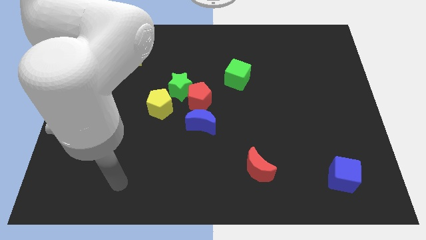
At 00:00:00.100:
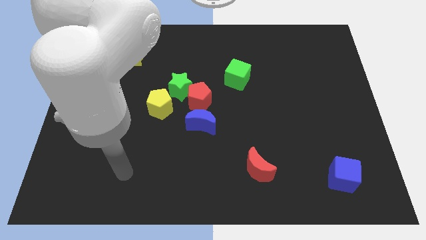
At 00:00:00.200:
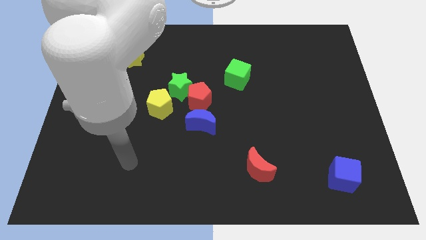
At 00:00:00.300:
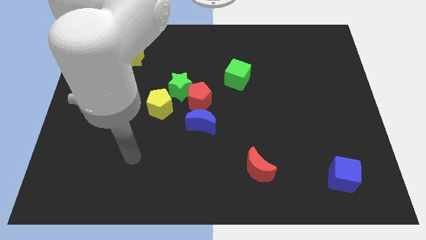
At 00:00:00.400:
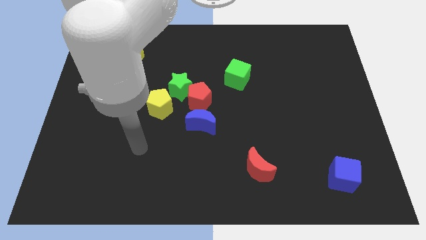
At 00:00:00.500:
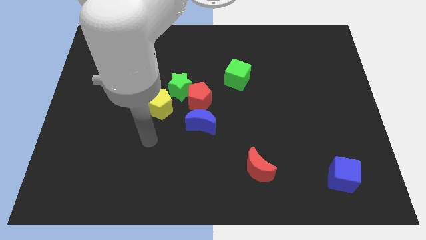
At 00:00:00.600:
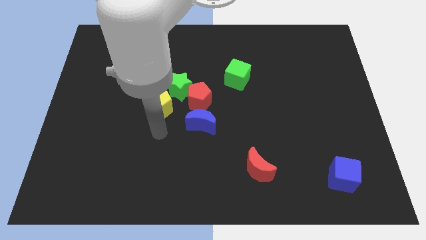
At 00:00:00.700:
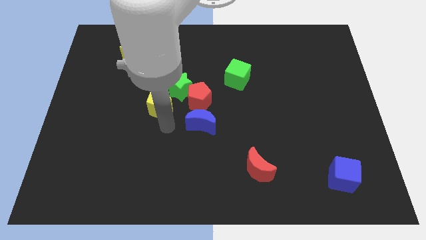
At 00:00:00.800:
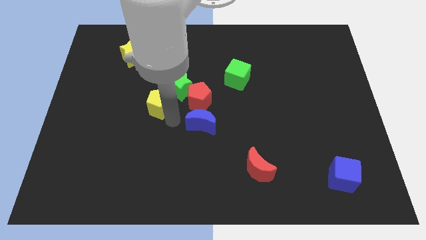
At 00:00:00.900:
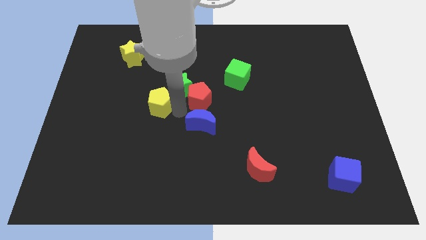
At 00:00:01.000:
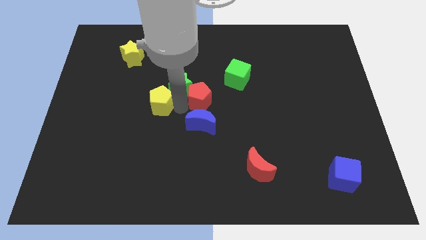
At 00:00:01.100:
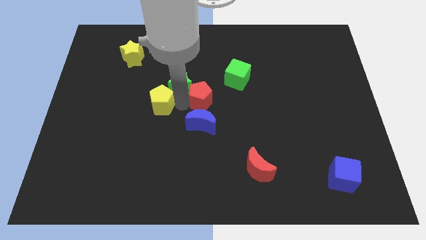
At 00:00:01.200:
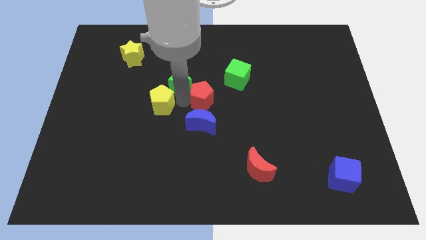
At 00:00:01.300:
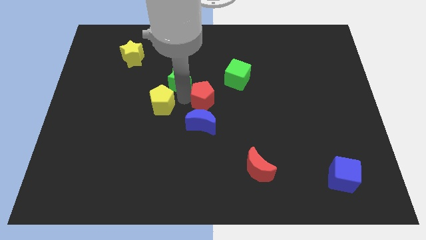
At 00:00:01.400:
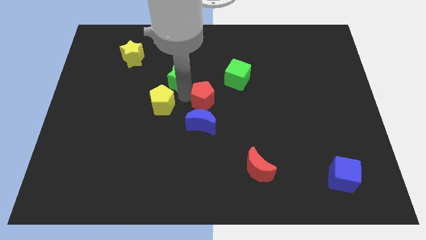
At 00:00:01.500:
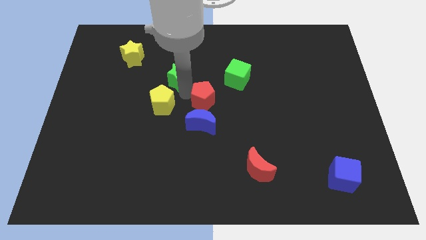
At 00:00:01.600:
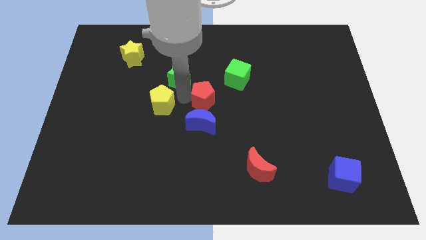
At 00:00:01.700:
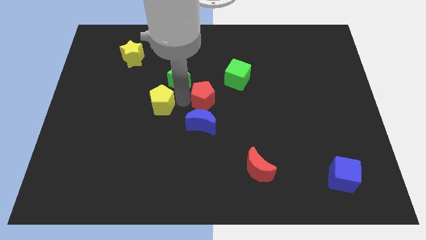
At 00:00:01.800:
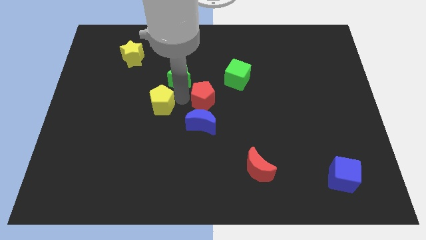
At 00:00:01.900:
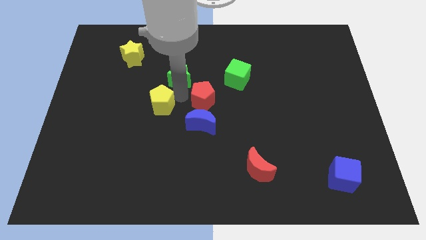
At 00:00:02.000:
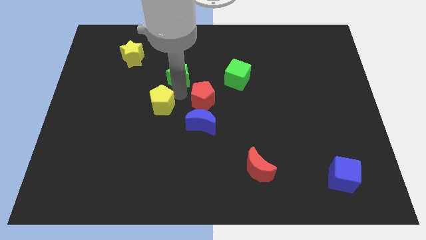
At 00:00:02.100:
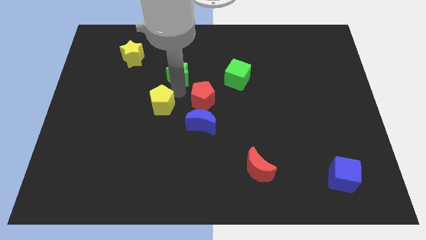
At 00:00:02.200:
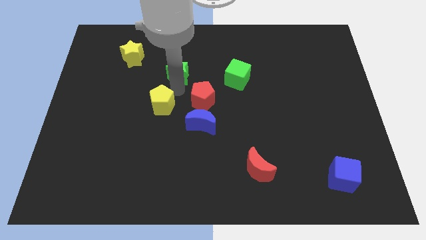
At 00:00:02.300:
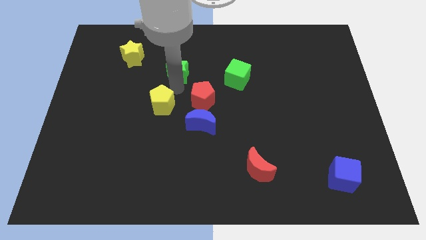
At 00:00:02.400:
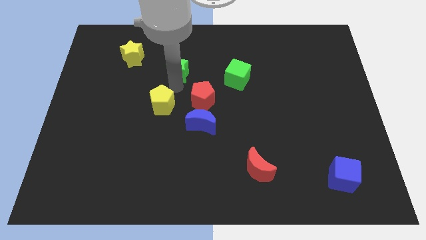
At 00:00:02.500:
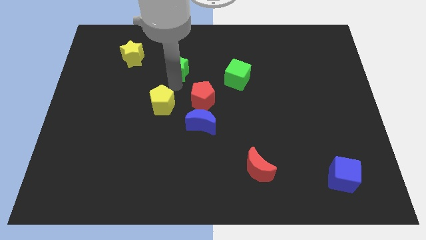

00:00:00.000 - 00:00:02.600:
move the green star away from the red pentagon and yellow pentagon

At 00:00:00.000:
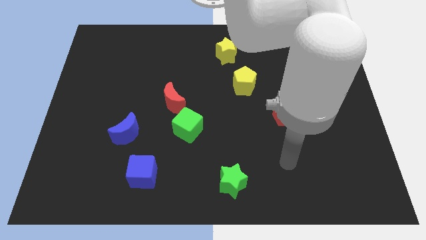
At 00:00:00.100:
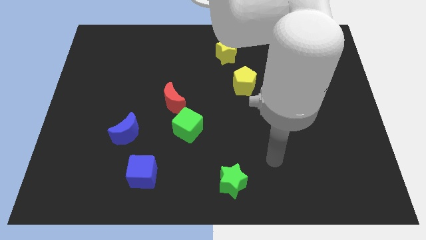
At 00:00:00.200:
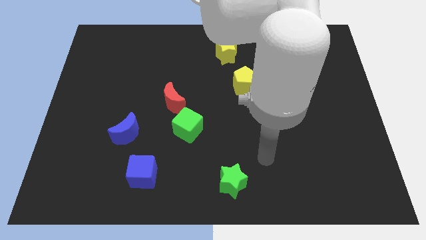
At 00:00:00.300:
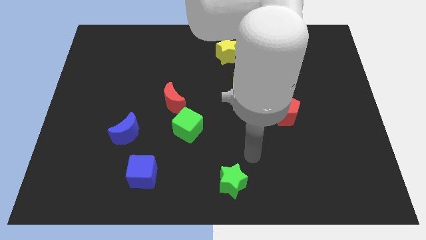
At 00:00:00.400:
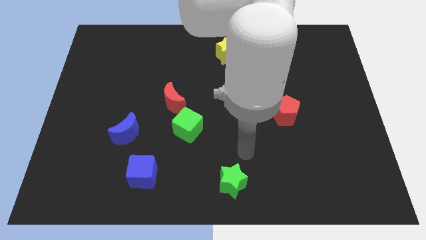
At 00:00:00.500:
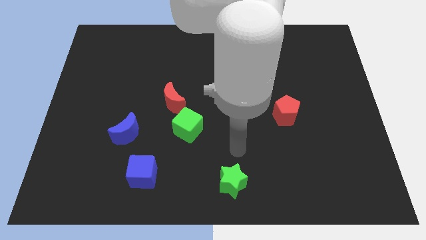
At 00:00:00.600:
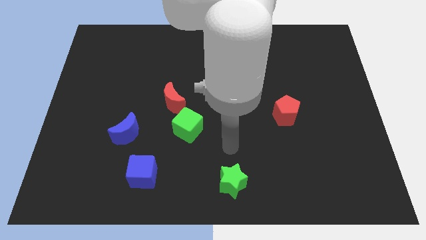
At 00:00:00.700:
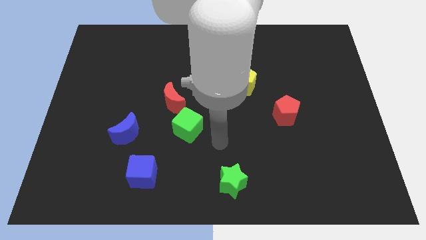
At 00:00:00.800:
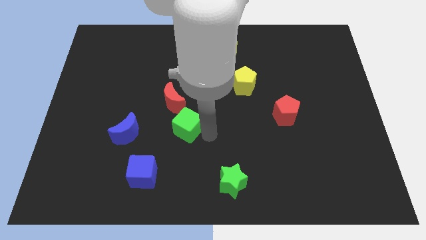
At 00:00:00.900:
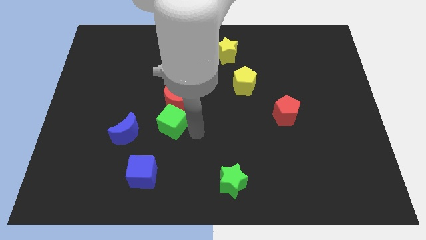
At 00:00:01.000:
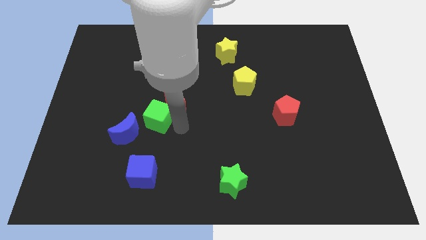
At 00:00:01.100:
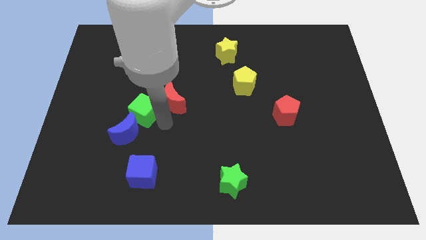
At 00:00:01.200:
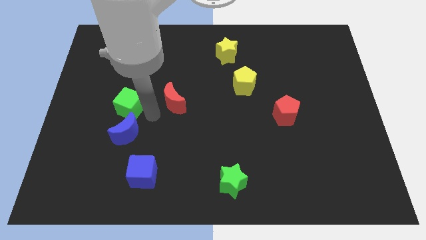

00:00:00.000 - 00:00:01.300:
pull the red moon apart from the green cube

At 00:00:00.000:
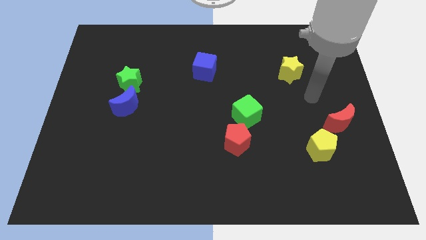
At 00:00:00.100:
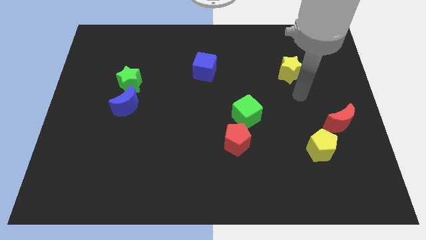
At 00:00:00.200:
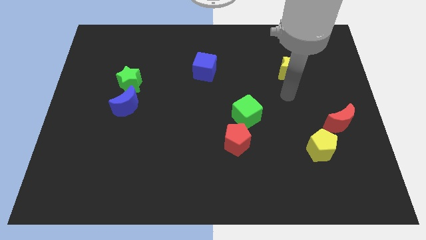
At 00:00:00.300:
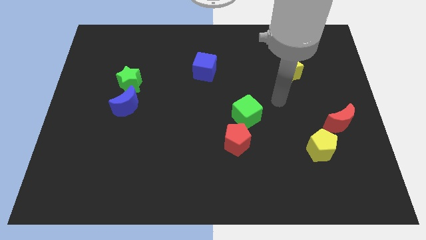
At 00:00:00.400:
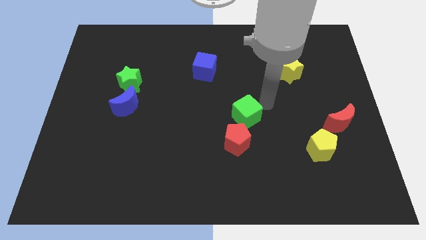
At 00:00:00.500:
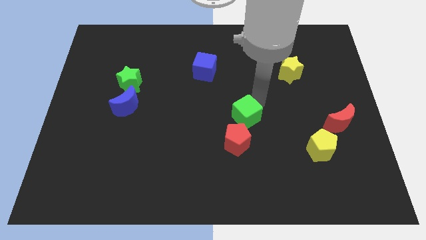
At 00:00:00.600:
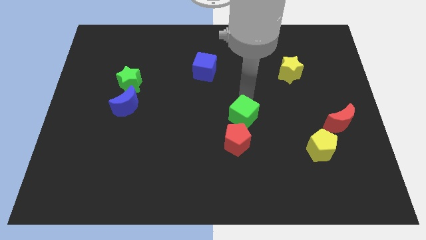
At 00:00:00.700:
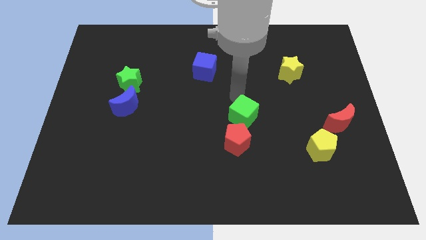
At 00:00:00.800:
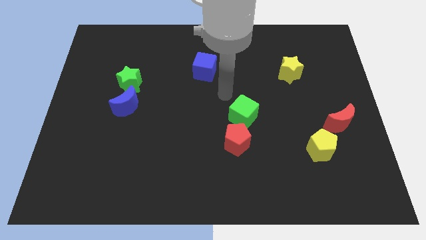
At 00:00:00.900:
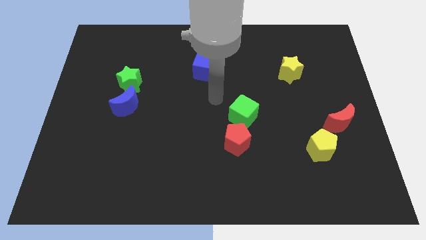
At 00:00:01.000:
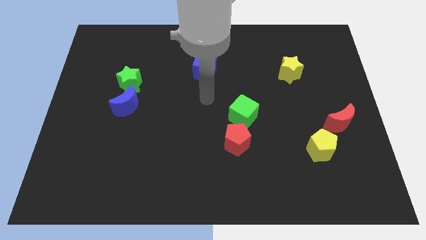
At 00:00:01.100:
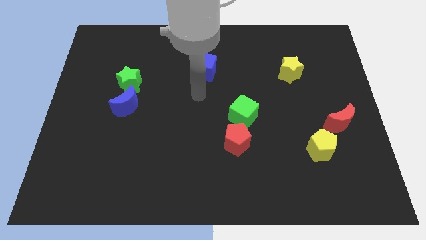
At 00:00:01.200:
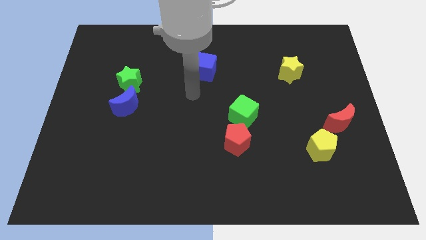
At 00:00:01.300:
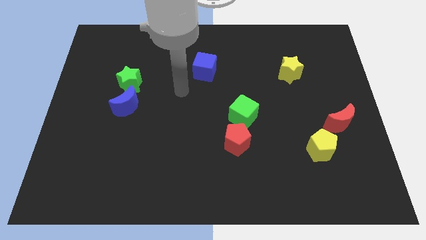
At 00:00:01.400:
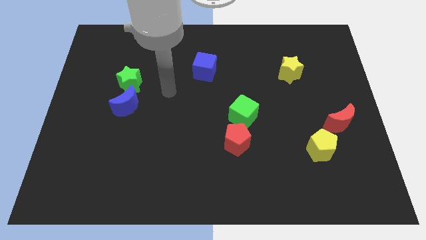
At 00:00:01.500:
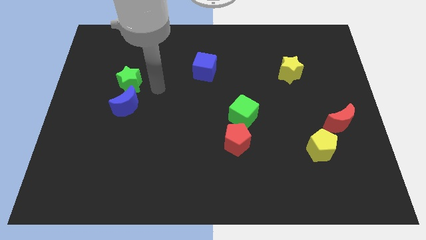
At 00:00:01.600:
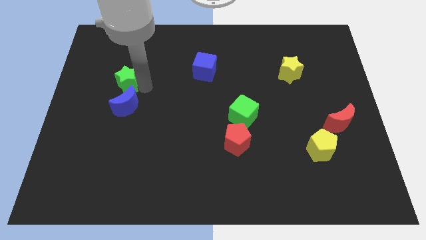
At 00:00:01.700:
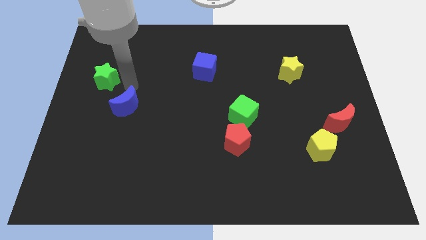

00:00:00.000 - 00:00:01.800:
pull the blue moon apart from the green star

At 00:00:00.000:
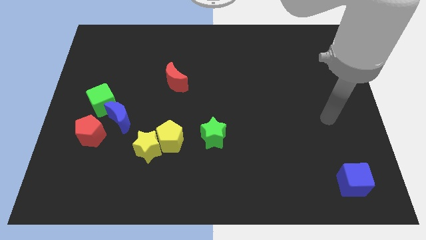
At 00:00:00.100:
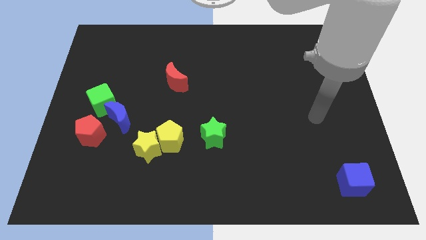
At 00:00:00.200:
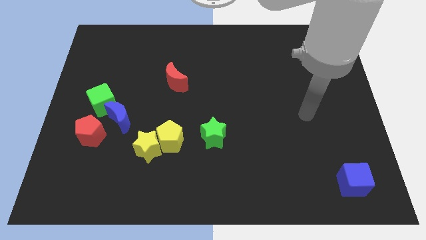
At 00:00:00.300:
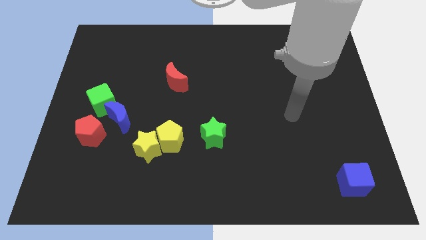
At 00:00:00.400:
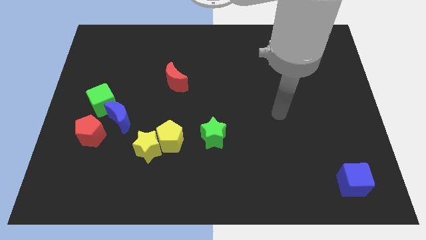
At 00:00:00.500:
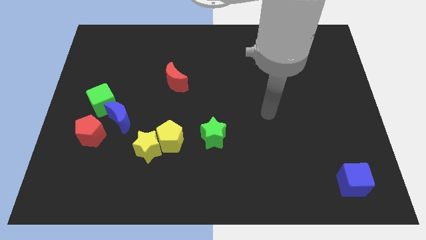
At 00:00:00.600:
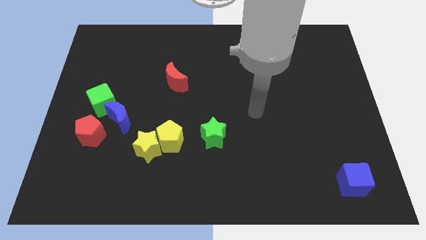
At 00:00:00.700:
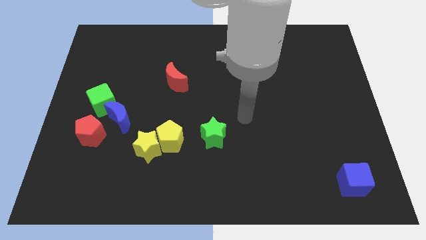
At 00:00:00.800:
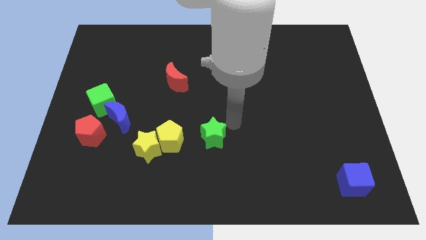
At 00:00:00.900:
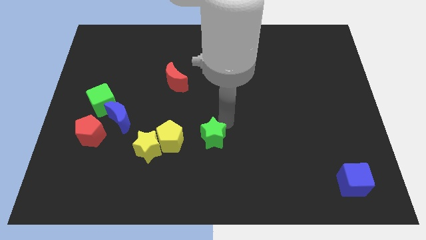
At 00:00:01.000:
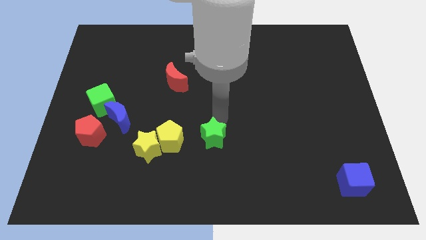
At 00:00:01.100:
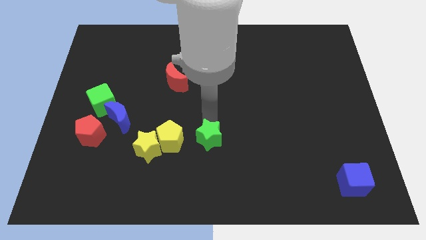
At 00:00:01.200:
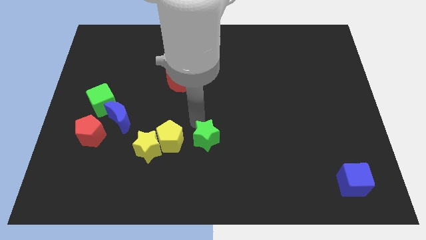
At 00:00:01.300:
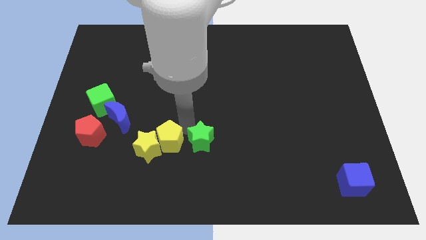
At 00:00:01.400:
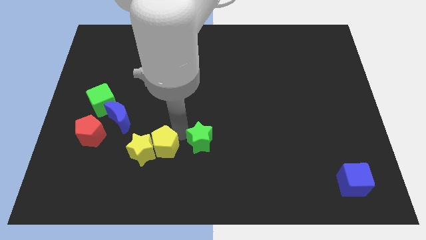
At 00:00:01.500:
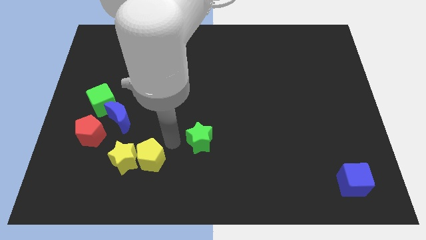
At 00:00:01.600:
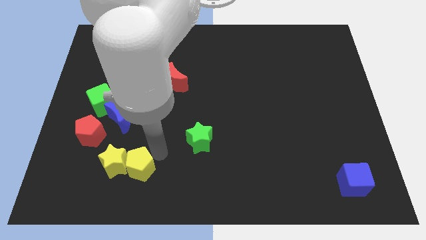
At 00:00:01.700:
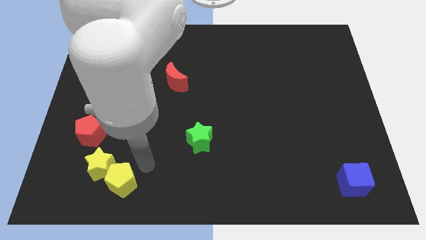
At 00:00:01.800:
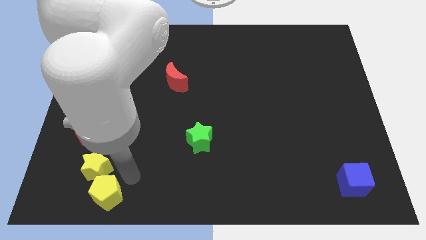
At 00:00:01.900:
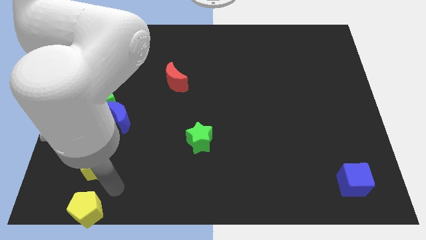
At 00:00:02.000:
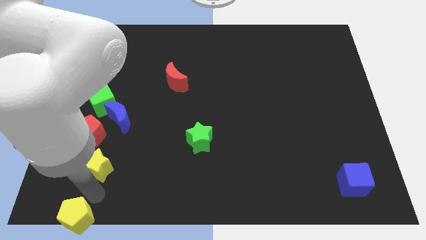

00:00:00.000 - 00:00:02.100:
separate the yellow star from the yellow pentagon

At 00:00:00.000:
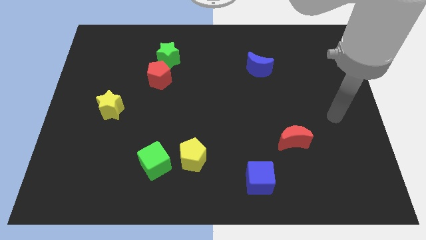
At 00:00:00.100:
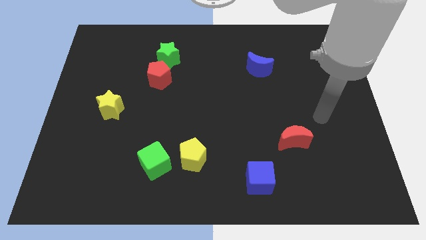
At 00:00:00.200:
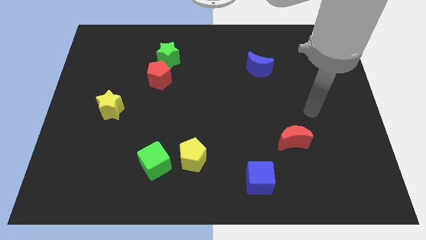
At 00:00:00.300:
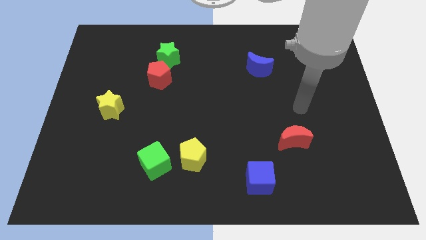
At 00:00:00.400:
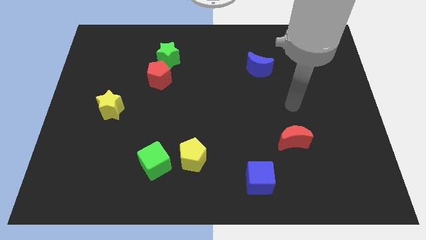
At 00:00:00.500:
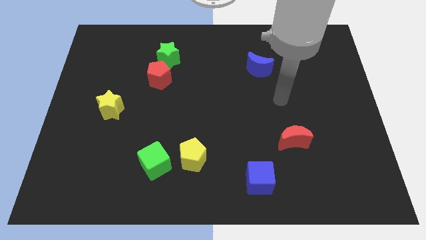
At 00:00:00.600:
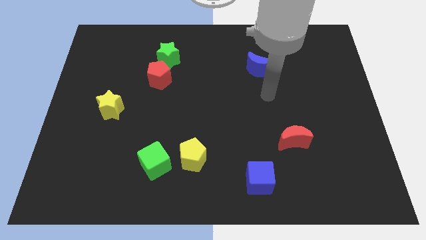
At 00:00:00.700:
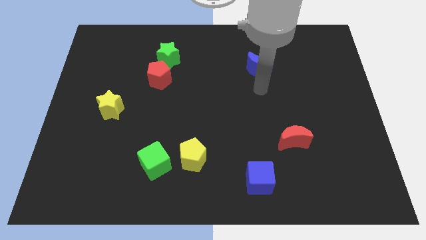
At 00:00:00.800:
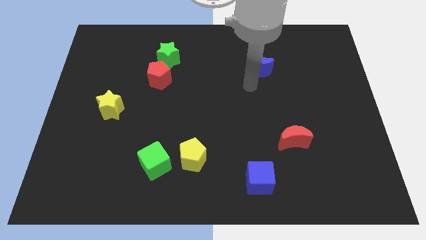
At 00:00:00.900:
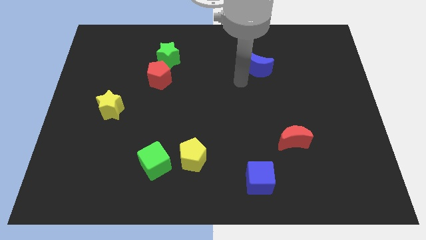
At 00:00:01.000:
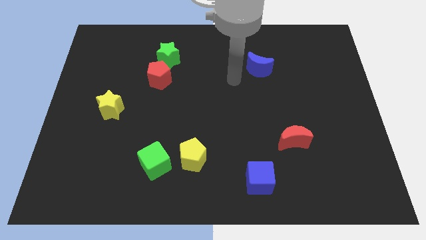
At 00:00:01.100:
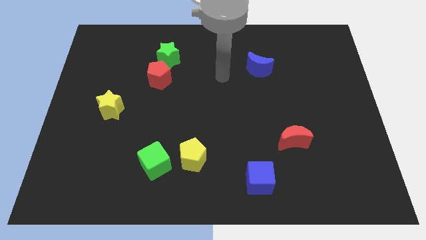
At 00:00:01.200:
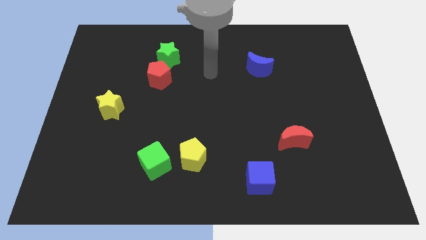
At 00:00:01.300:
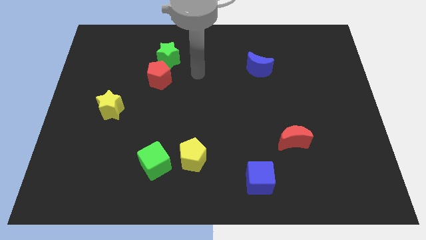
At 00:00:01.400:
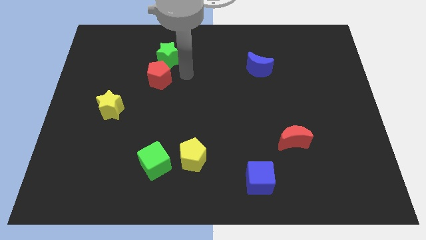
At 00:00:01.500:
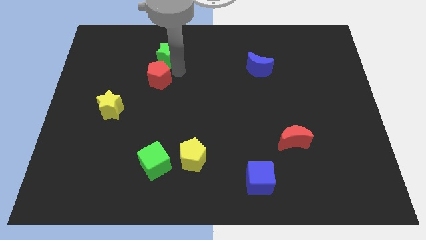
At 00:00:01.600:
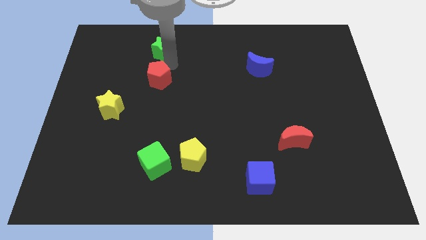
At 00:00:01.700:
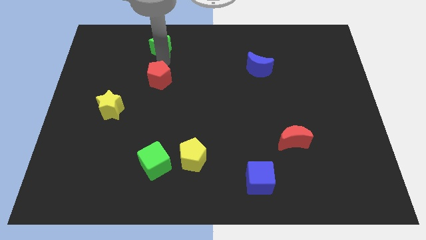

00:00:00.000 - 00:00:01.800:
separate the red pentagon from the green star
